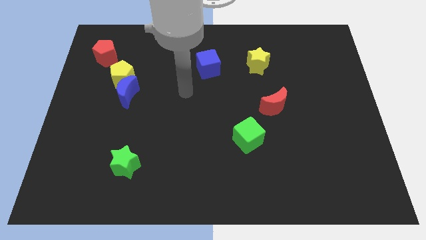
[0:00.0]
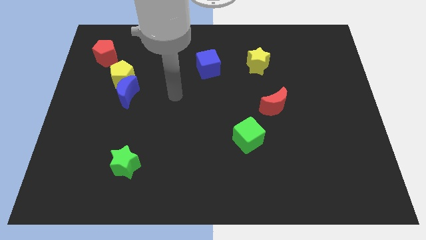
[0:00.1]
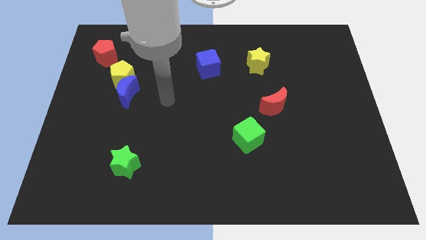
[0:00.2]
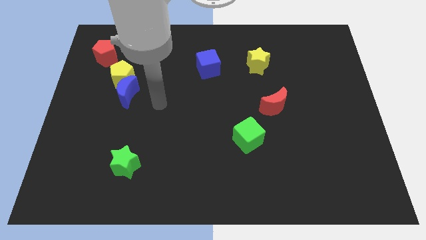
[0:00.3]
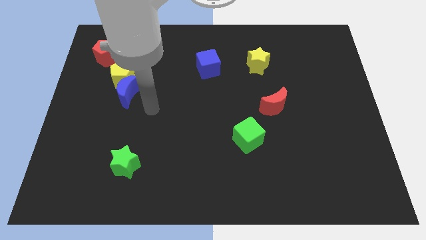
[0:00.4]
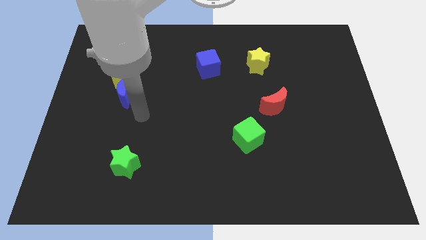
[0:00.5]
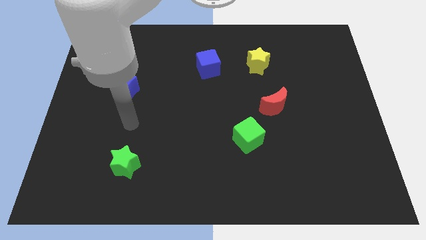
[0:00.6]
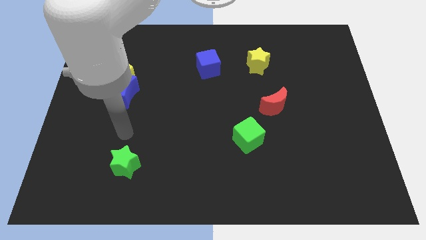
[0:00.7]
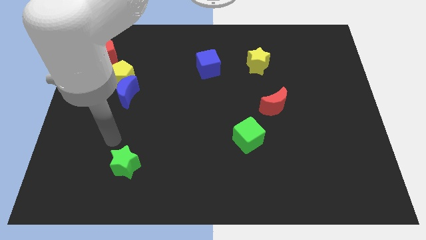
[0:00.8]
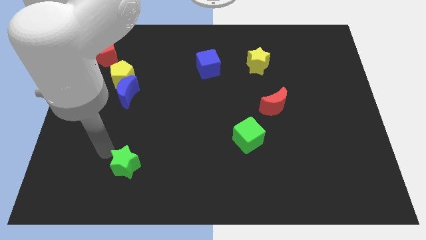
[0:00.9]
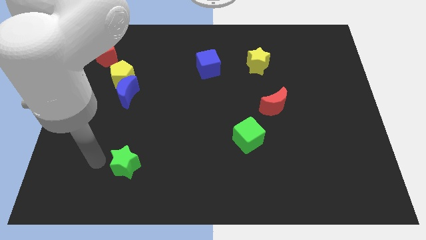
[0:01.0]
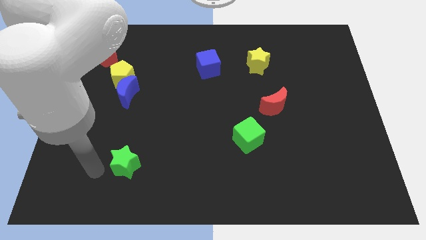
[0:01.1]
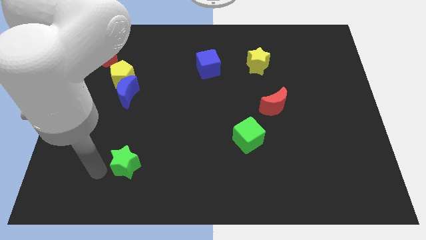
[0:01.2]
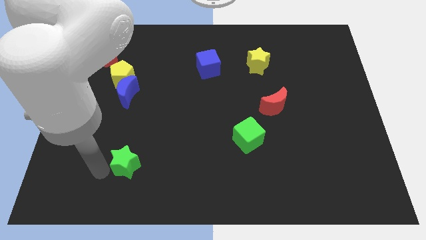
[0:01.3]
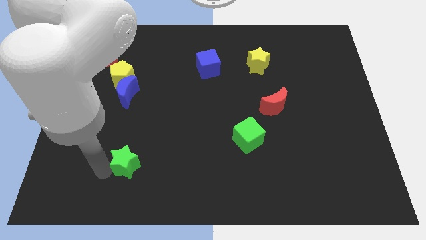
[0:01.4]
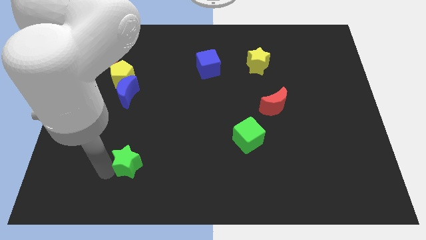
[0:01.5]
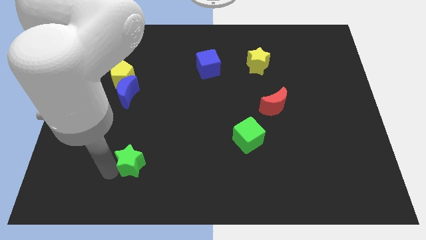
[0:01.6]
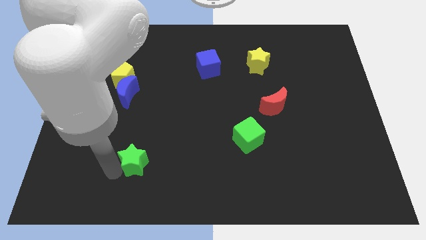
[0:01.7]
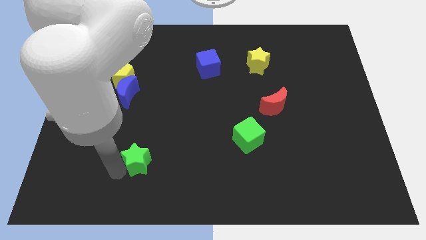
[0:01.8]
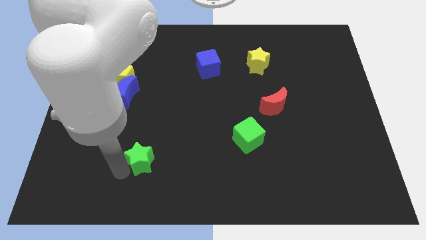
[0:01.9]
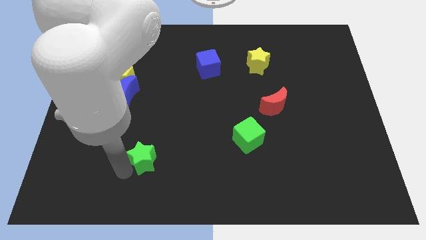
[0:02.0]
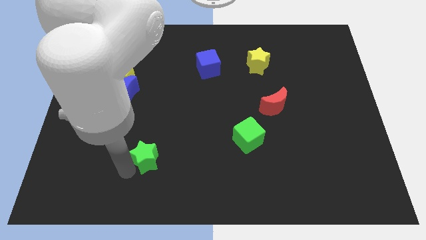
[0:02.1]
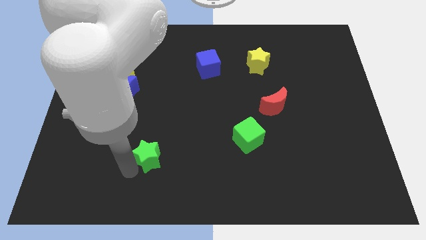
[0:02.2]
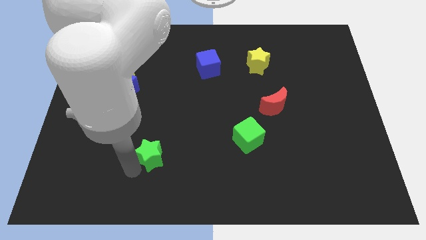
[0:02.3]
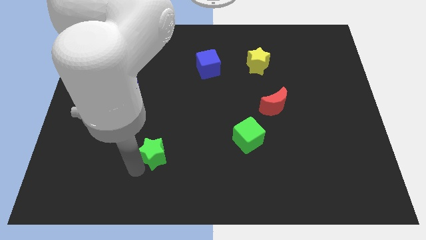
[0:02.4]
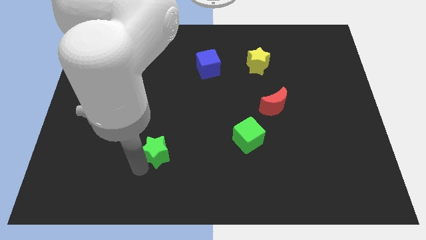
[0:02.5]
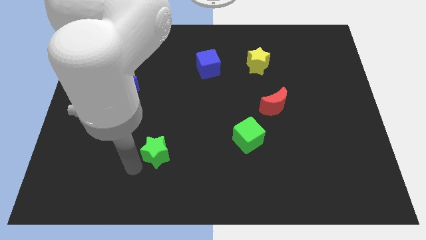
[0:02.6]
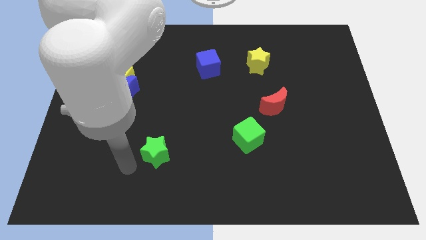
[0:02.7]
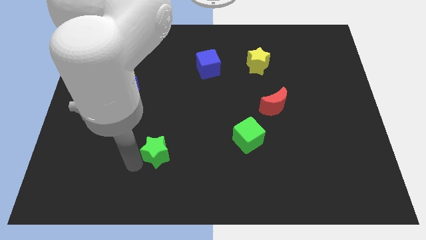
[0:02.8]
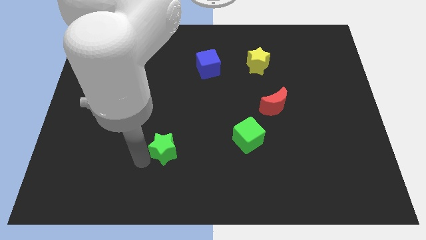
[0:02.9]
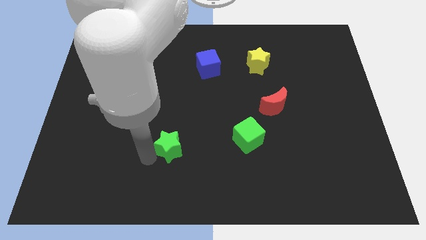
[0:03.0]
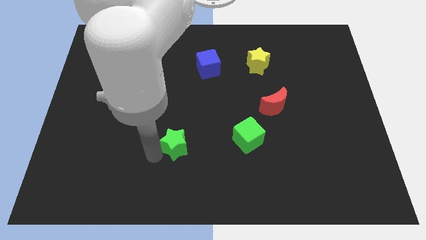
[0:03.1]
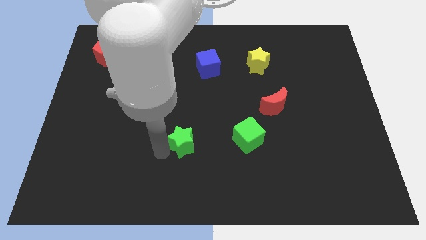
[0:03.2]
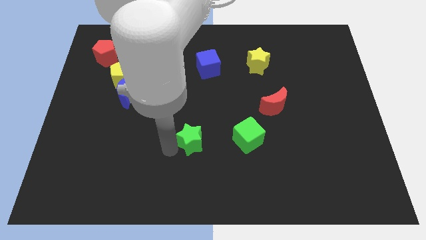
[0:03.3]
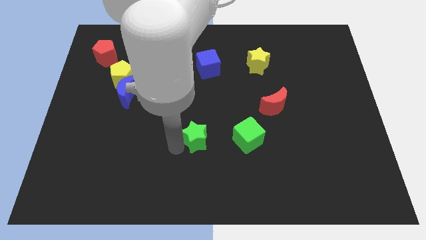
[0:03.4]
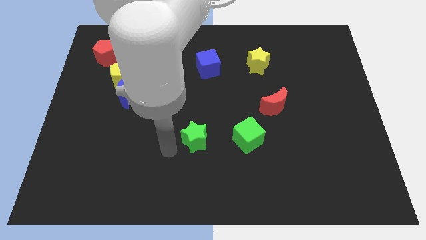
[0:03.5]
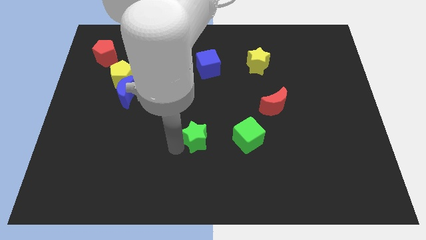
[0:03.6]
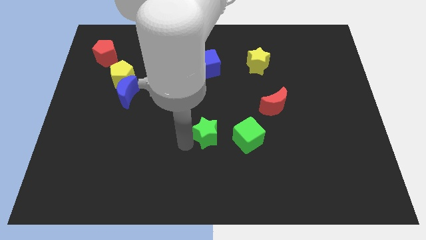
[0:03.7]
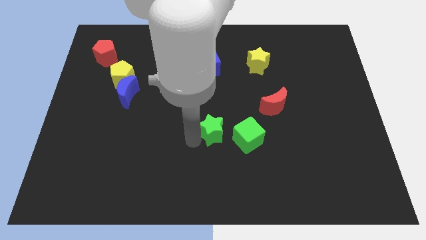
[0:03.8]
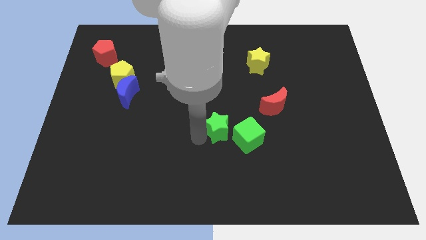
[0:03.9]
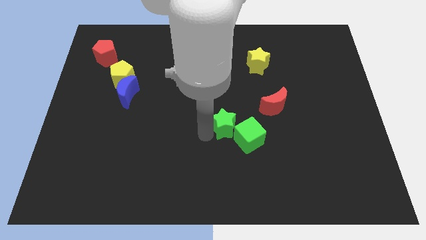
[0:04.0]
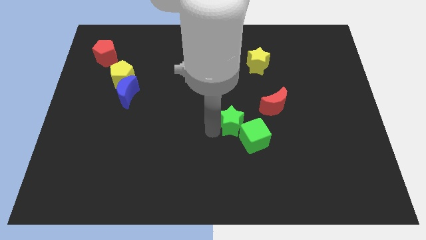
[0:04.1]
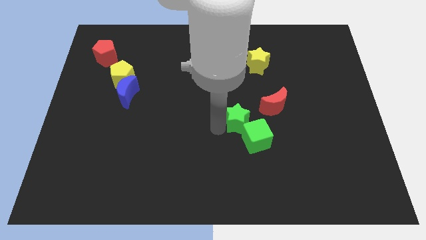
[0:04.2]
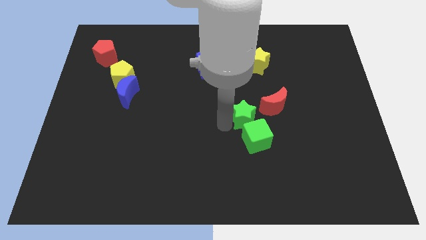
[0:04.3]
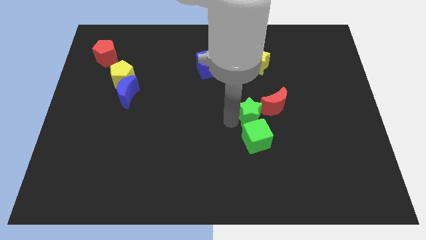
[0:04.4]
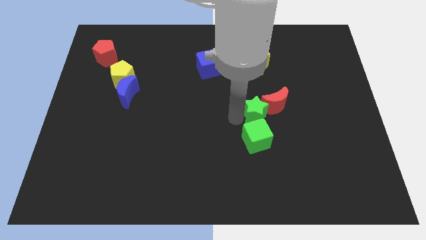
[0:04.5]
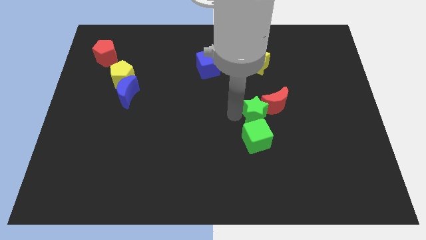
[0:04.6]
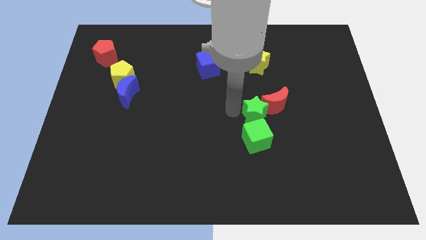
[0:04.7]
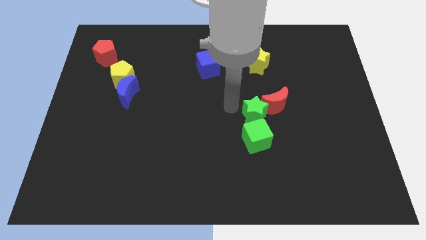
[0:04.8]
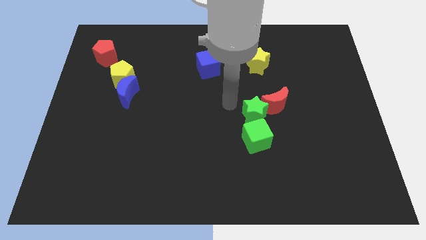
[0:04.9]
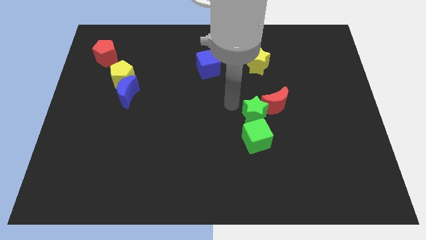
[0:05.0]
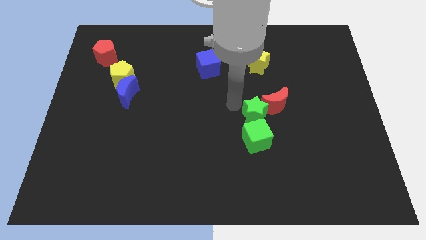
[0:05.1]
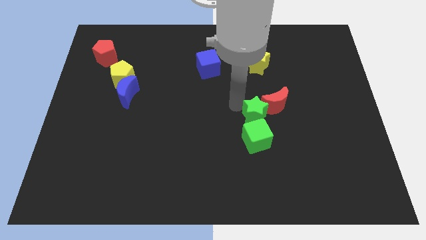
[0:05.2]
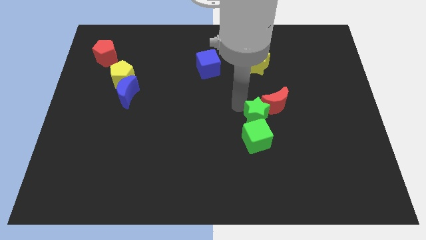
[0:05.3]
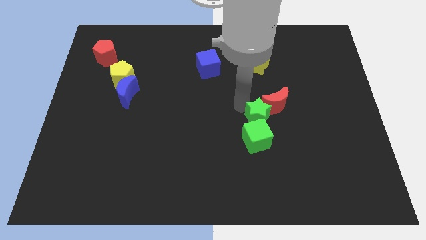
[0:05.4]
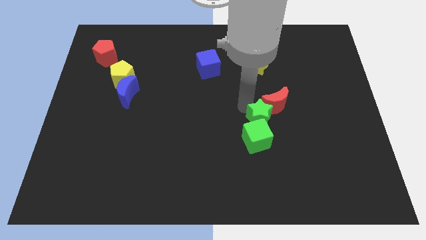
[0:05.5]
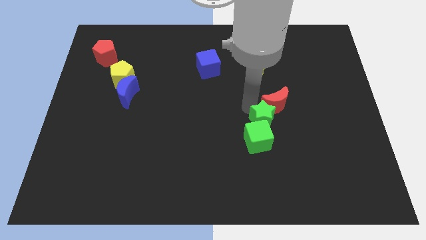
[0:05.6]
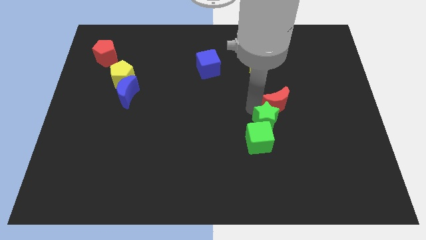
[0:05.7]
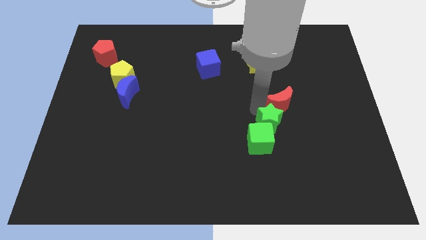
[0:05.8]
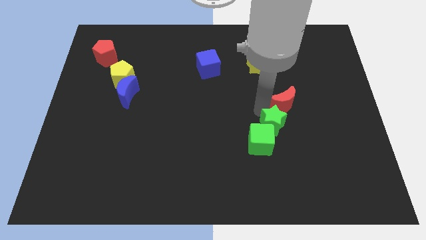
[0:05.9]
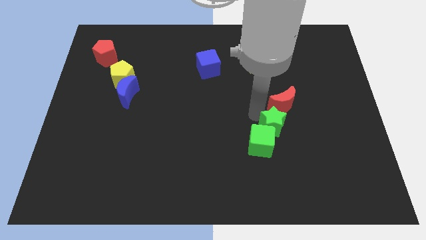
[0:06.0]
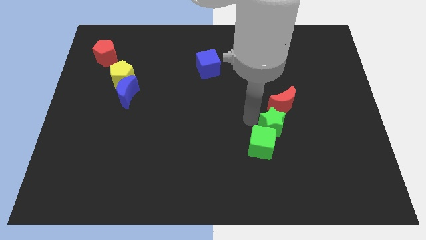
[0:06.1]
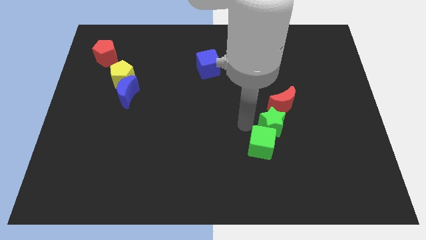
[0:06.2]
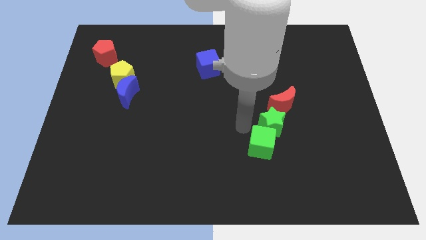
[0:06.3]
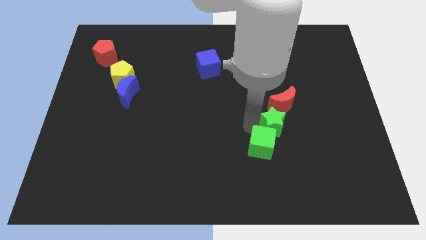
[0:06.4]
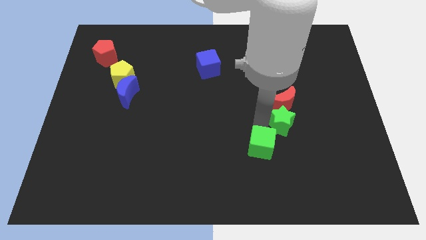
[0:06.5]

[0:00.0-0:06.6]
push the green star to the bottom right side of the red moon
